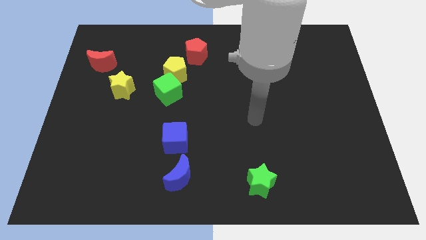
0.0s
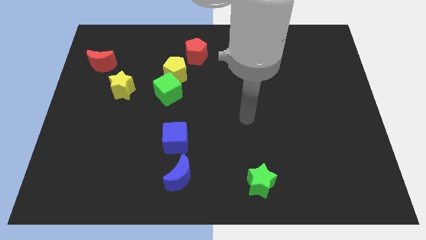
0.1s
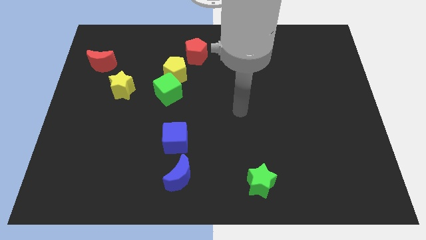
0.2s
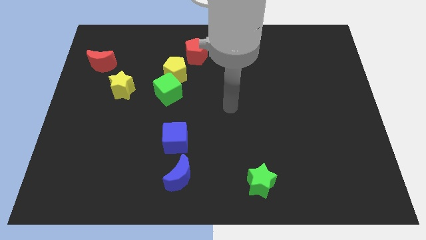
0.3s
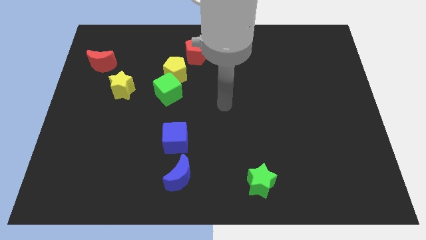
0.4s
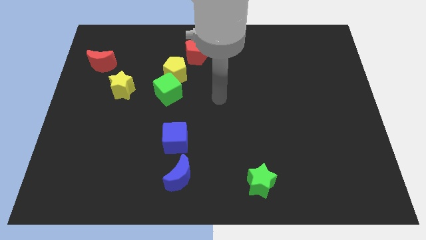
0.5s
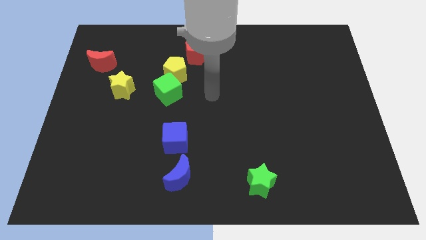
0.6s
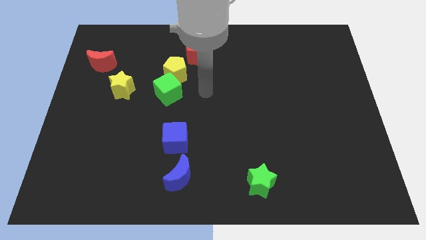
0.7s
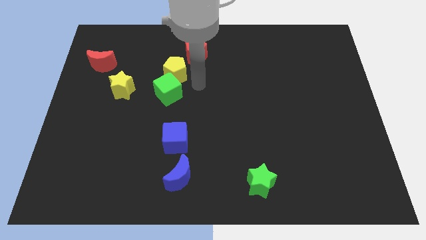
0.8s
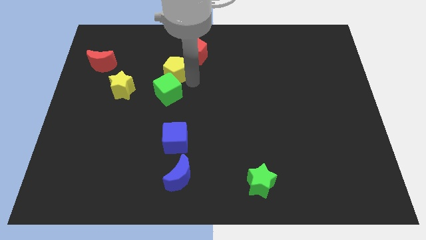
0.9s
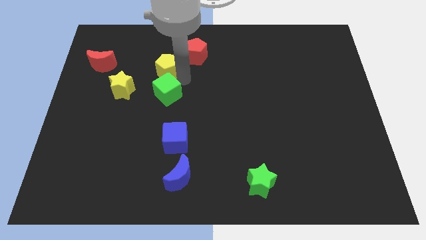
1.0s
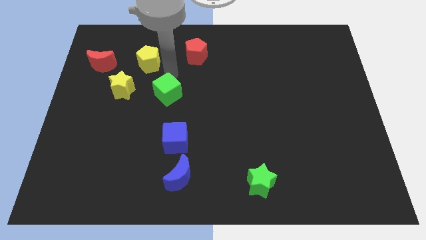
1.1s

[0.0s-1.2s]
pull the green cube apart from the yellow pentagon

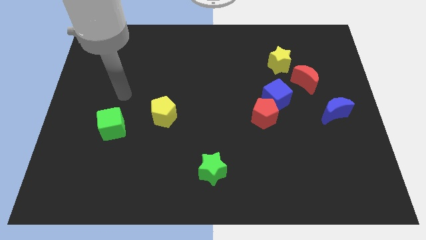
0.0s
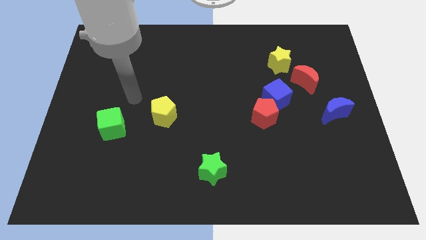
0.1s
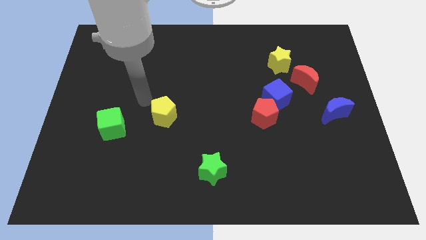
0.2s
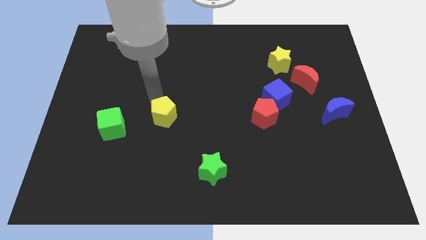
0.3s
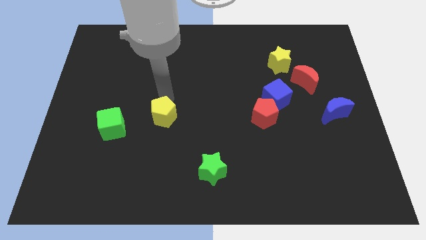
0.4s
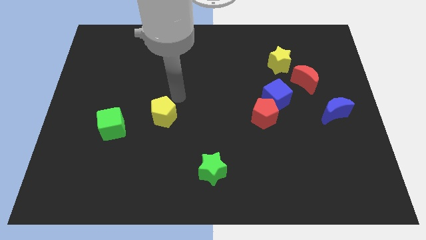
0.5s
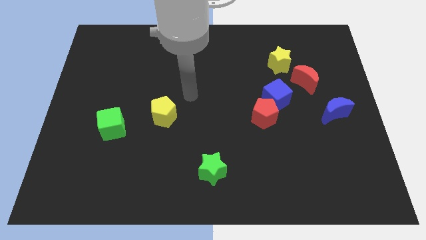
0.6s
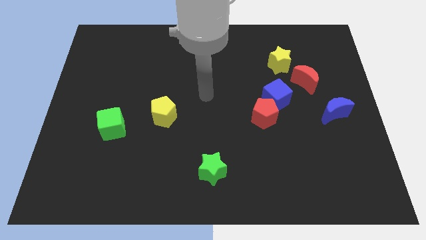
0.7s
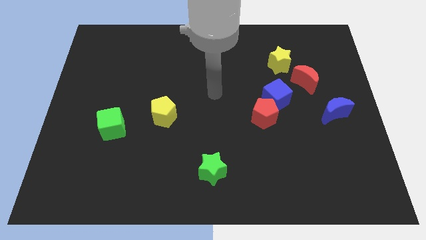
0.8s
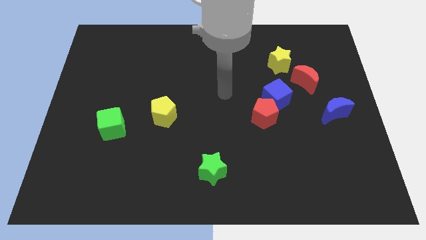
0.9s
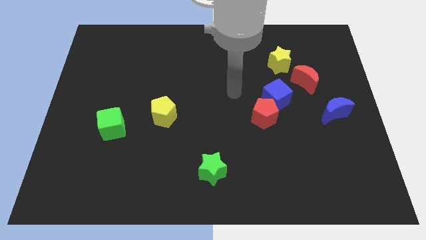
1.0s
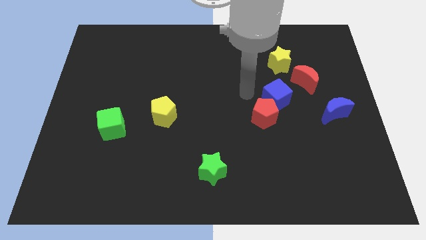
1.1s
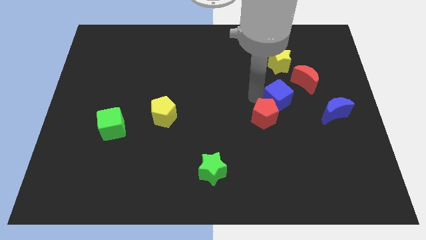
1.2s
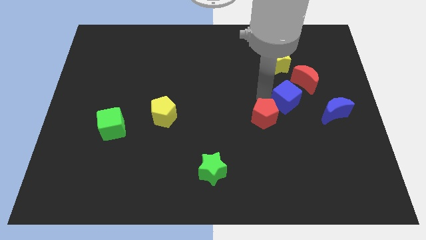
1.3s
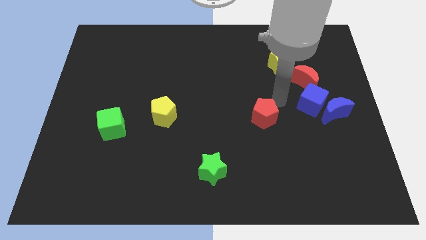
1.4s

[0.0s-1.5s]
separate the red pentagon from the blue cube

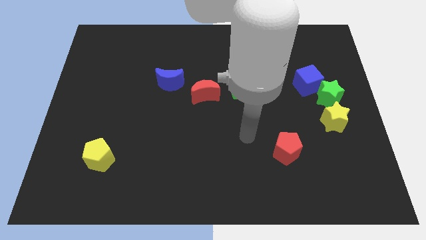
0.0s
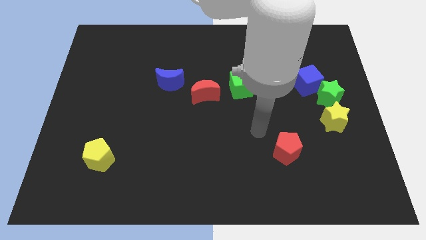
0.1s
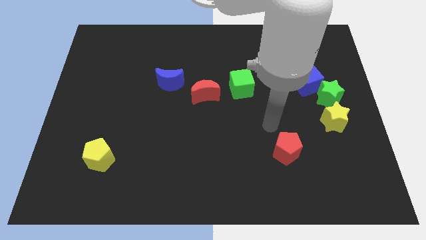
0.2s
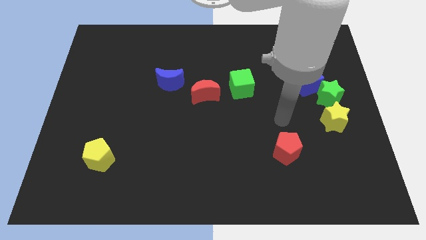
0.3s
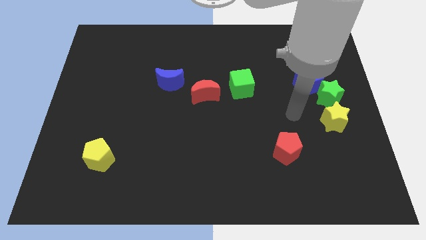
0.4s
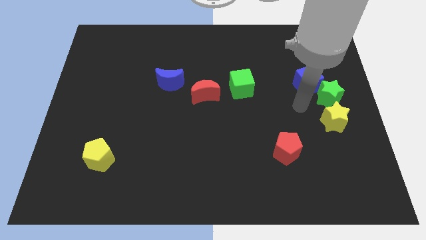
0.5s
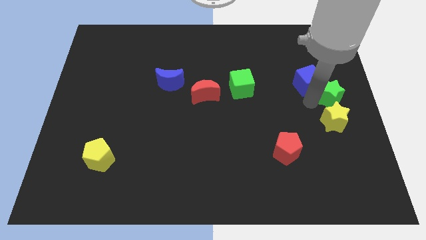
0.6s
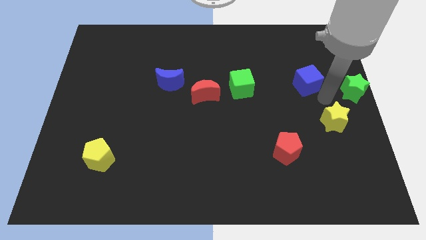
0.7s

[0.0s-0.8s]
separate the blue cube from the green star

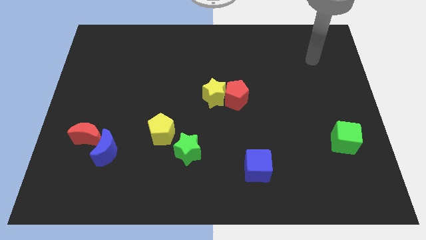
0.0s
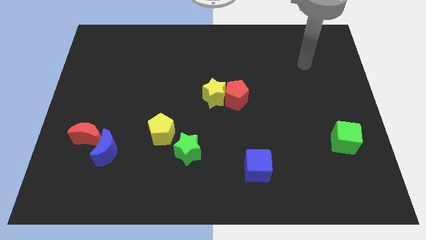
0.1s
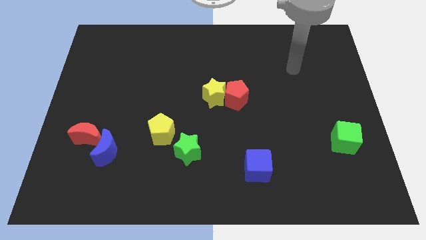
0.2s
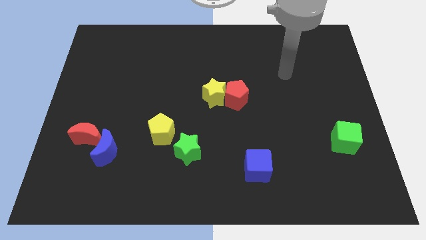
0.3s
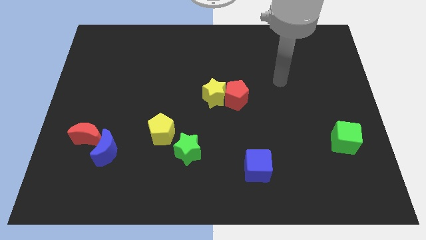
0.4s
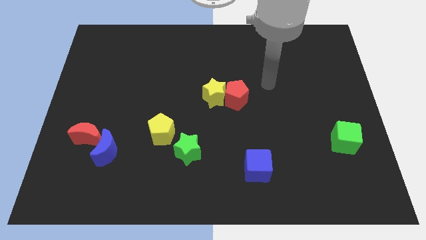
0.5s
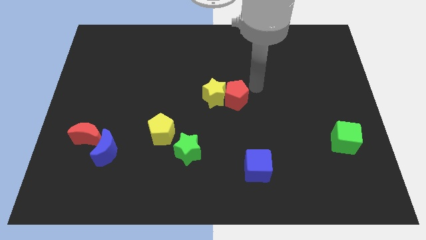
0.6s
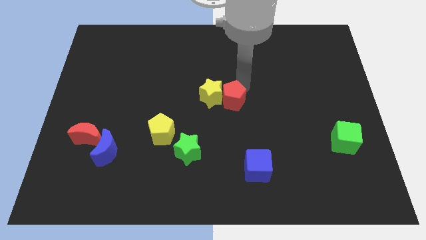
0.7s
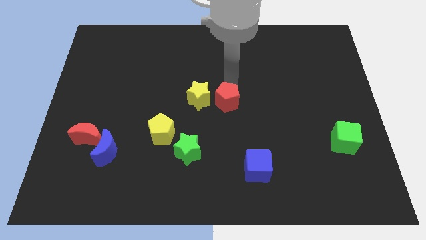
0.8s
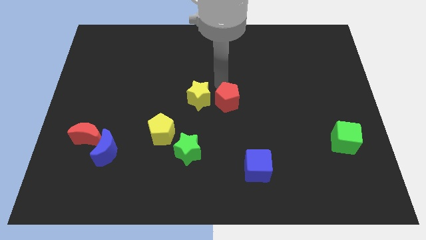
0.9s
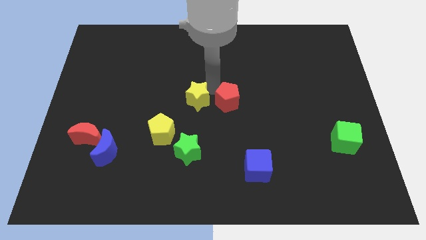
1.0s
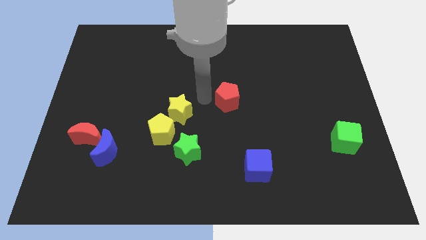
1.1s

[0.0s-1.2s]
pull the red pentagon apart from the yellow star

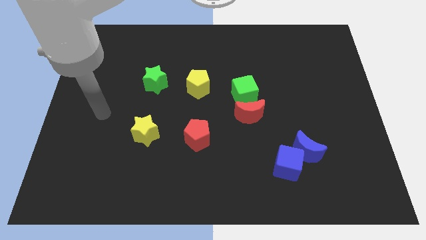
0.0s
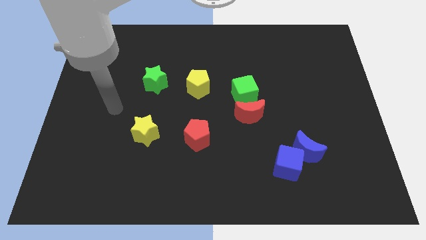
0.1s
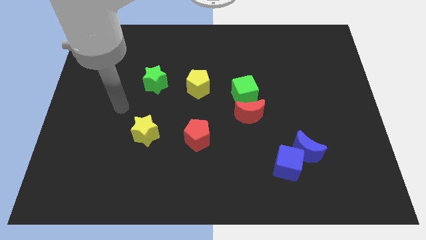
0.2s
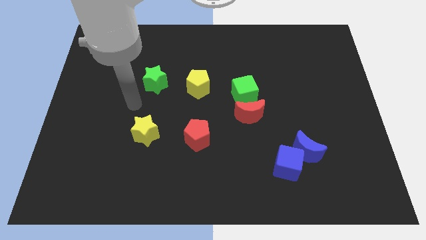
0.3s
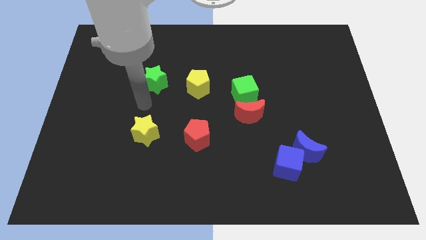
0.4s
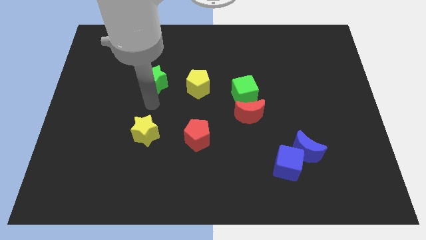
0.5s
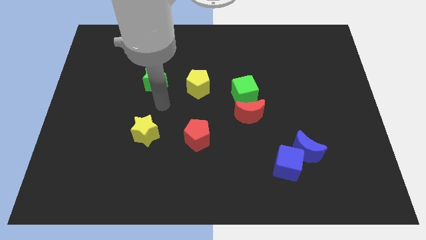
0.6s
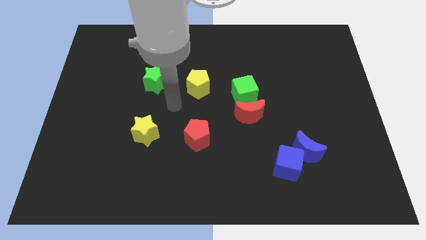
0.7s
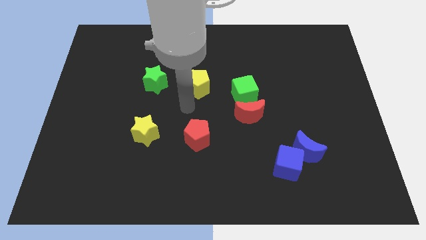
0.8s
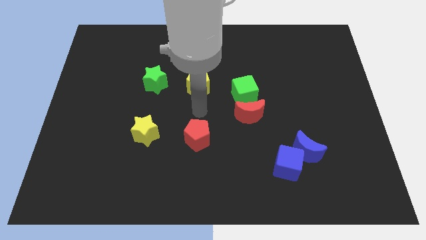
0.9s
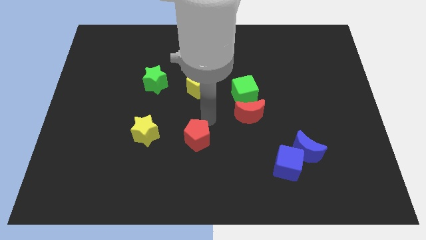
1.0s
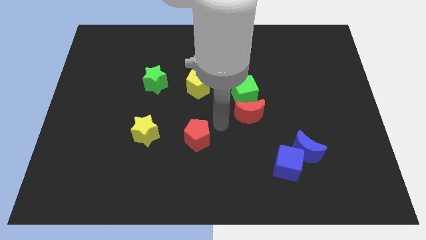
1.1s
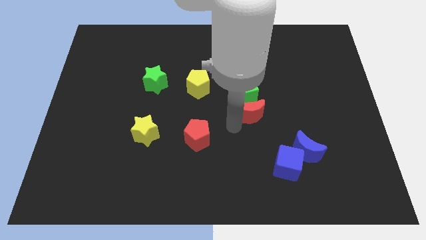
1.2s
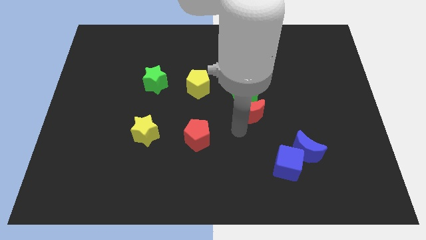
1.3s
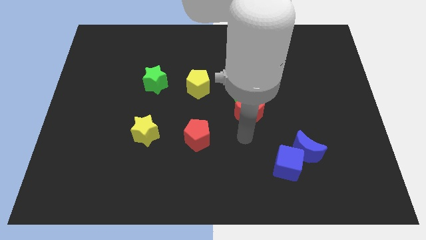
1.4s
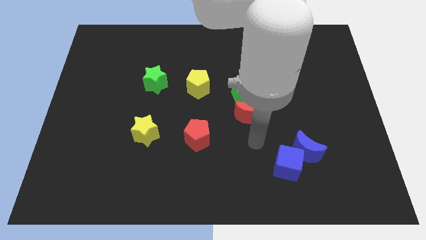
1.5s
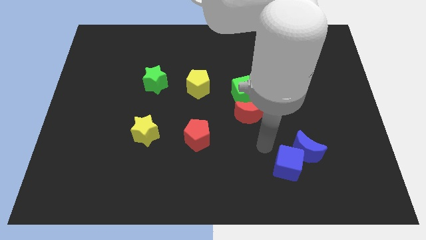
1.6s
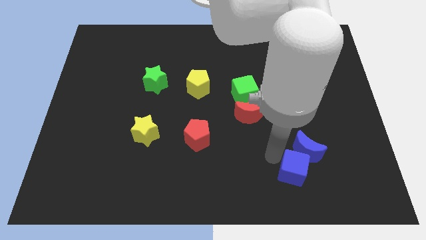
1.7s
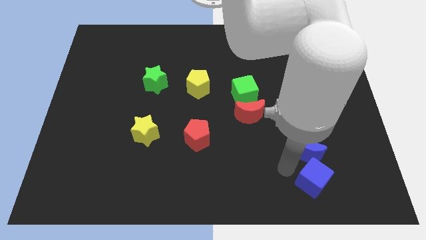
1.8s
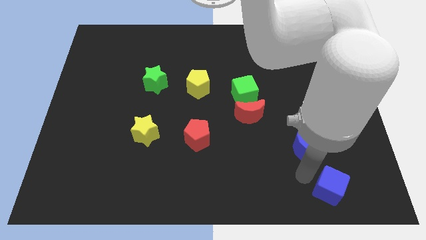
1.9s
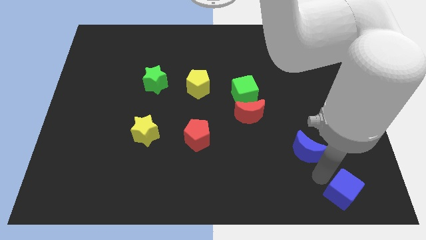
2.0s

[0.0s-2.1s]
move the blue moon away from the blue cube

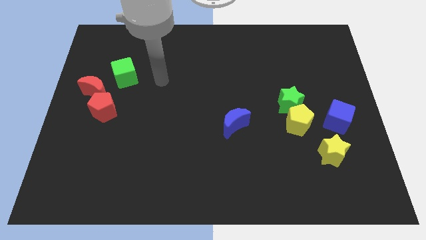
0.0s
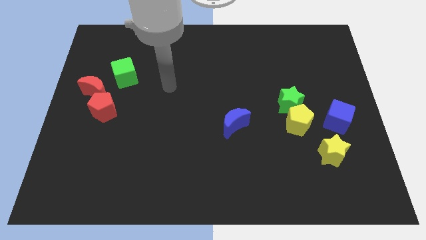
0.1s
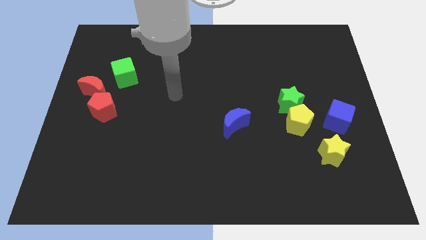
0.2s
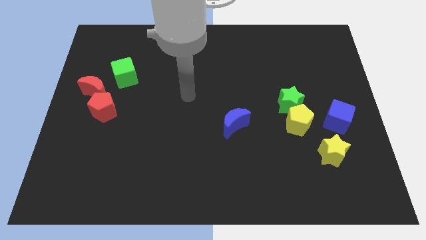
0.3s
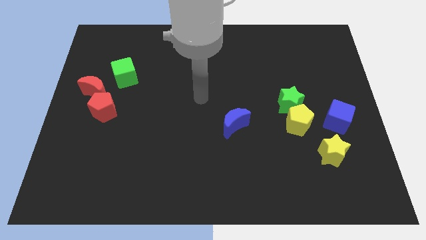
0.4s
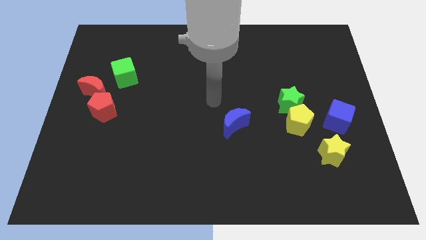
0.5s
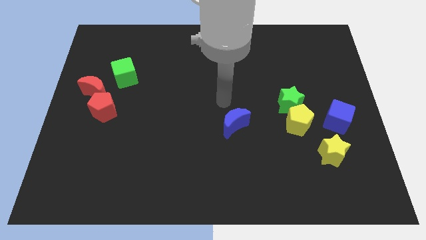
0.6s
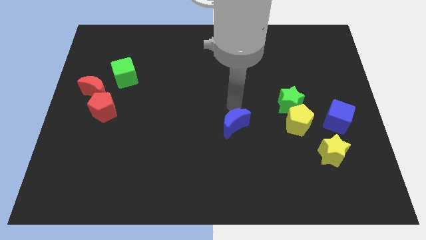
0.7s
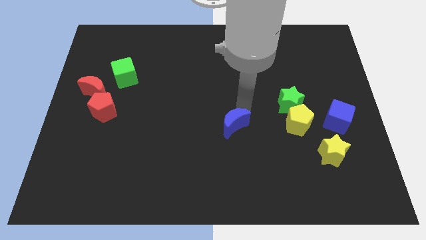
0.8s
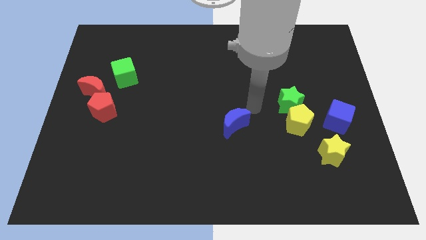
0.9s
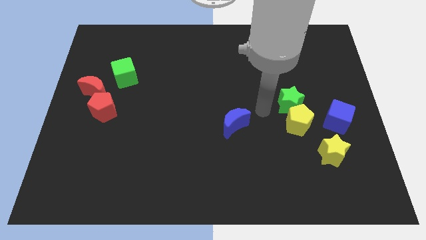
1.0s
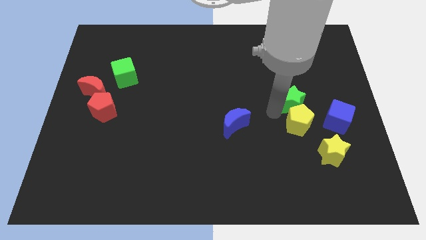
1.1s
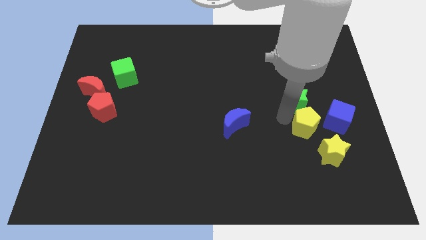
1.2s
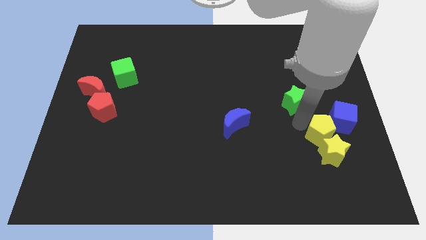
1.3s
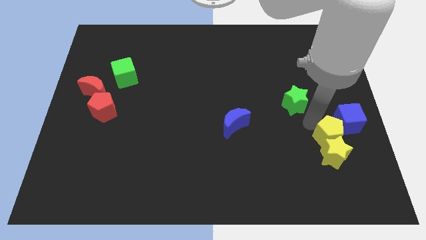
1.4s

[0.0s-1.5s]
pull the green star apart from the yellow pentagon

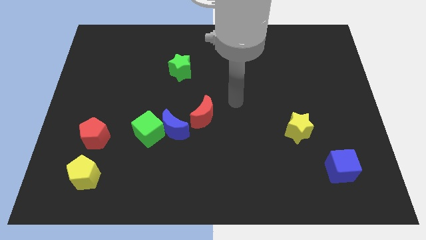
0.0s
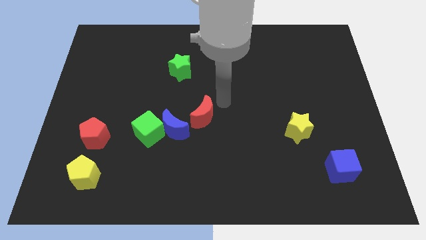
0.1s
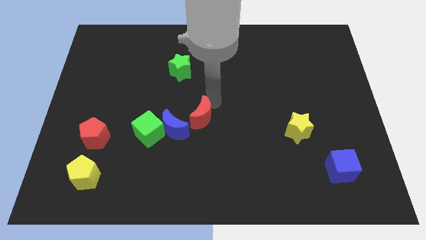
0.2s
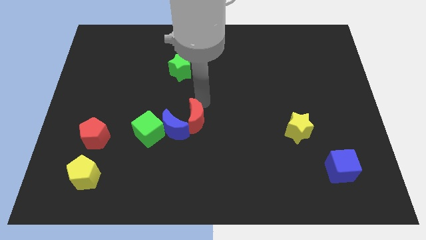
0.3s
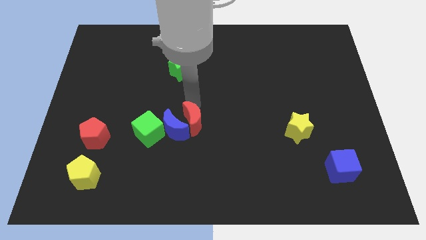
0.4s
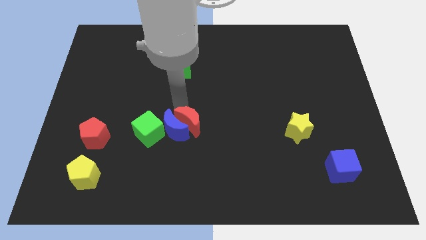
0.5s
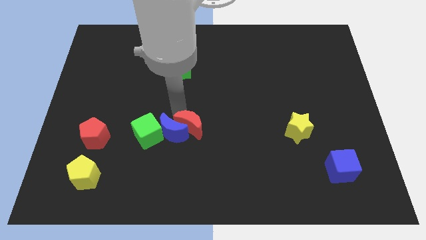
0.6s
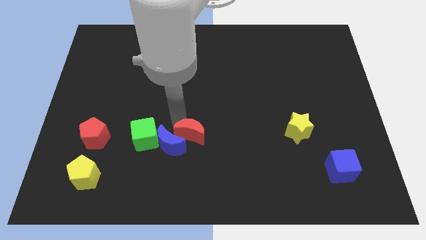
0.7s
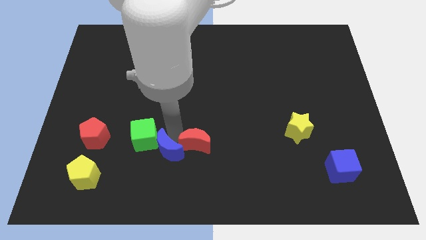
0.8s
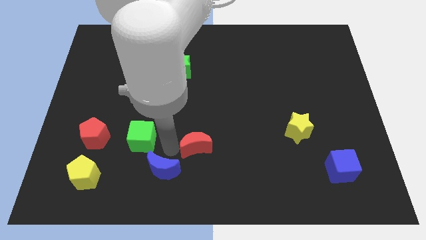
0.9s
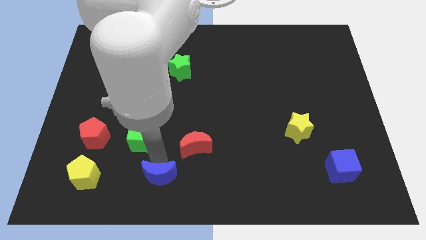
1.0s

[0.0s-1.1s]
pull the green cube apart from the blue moon
